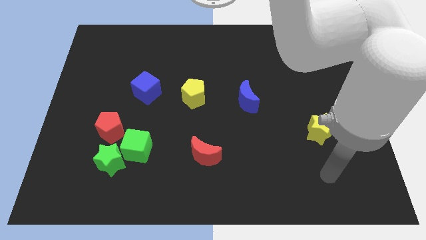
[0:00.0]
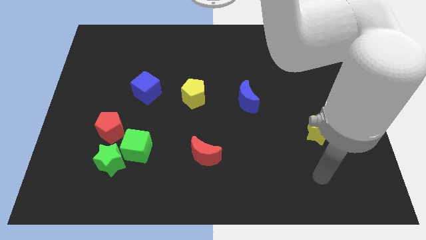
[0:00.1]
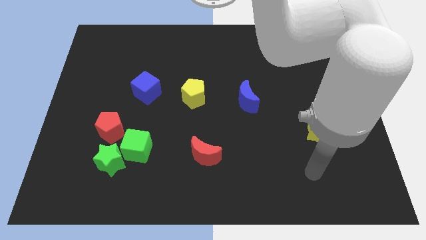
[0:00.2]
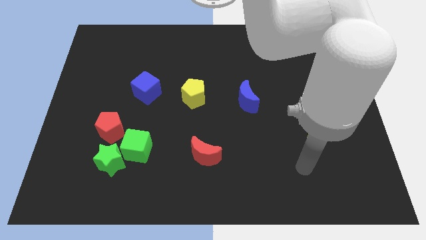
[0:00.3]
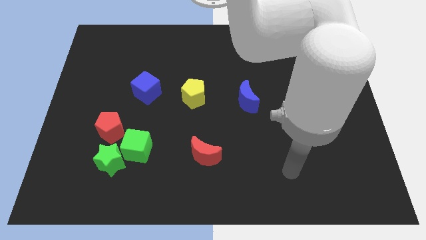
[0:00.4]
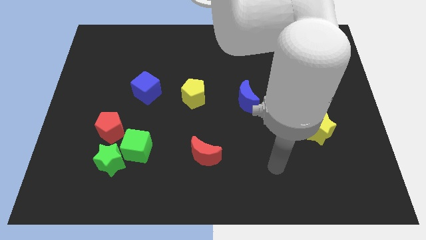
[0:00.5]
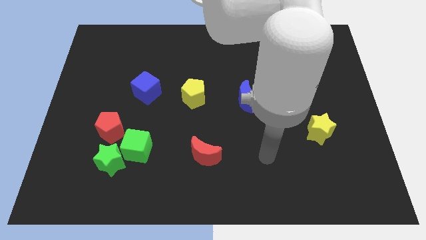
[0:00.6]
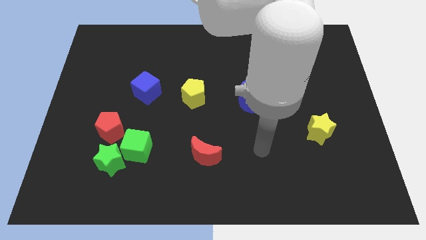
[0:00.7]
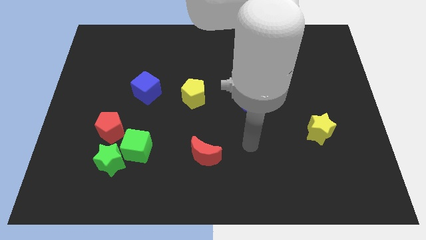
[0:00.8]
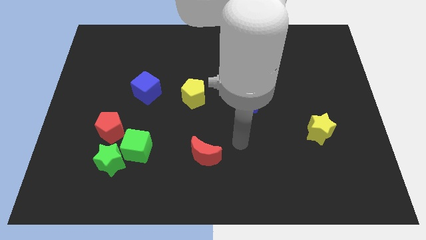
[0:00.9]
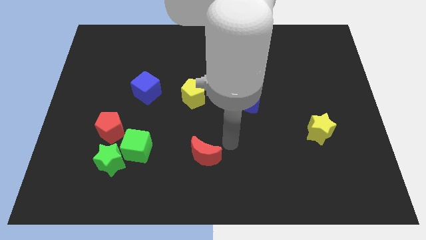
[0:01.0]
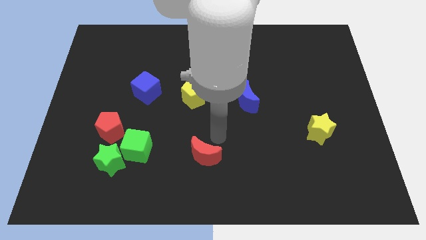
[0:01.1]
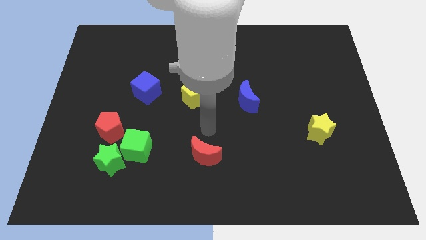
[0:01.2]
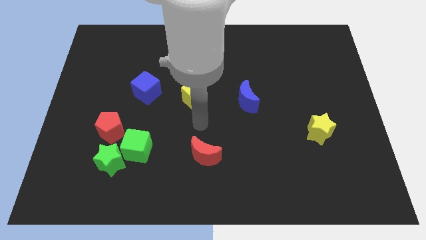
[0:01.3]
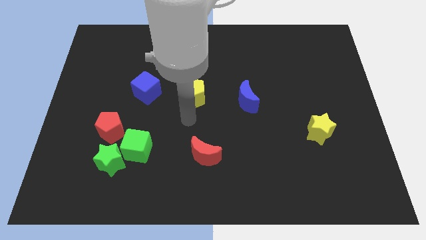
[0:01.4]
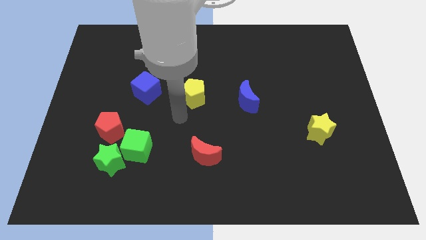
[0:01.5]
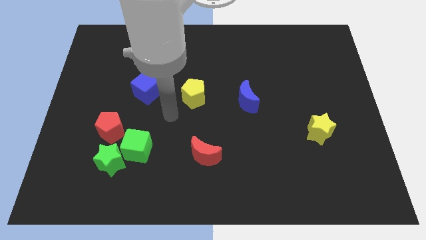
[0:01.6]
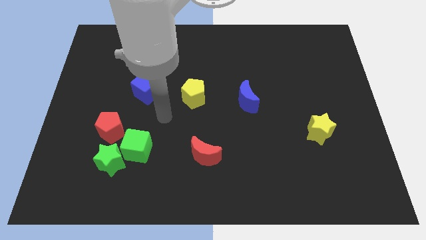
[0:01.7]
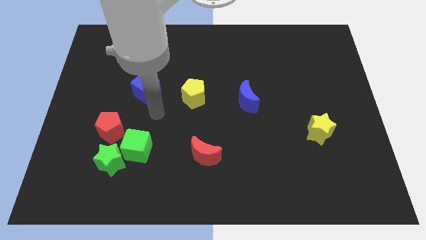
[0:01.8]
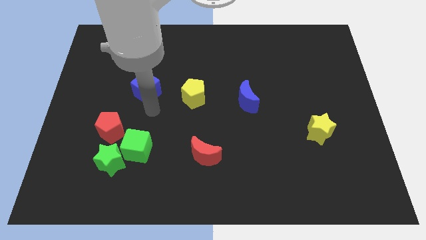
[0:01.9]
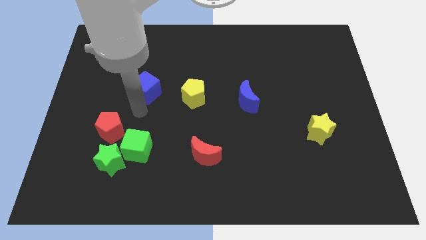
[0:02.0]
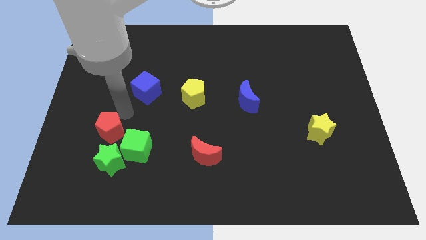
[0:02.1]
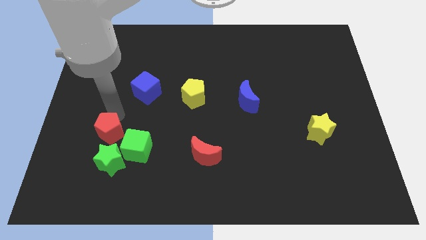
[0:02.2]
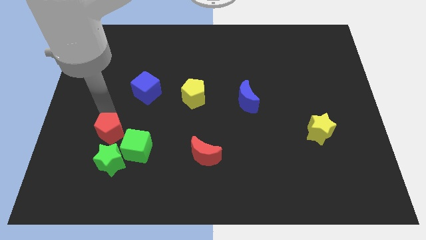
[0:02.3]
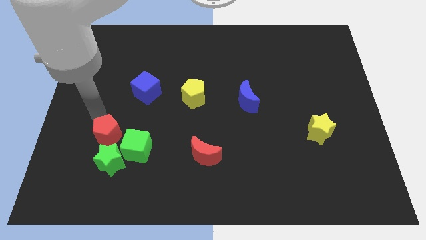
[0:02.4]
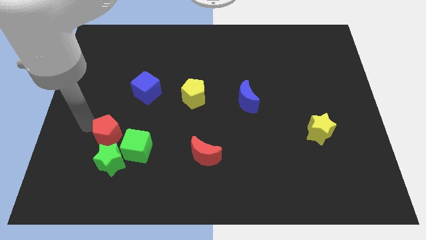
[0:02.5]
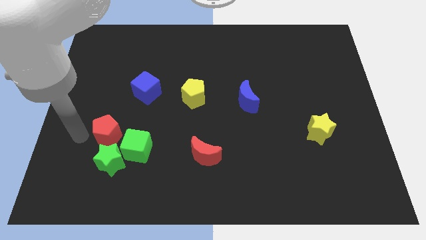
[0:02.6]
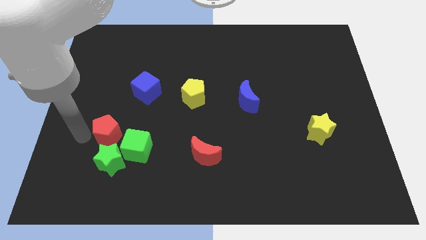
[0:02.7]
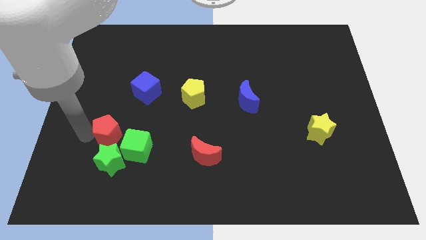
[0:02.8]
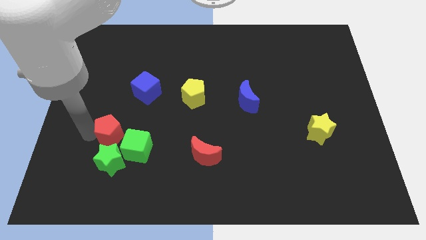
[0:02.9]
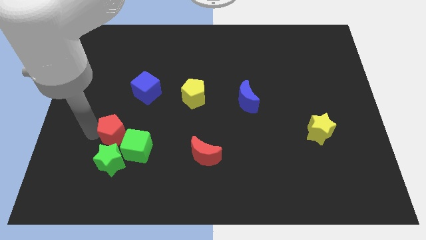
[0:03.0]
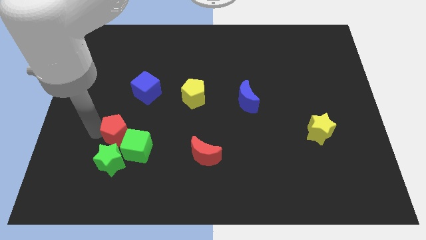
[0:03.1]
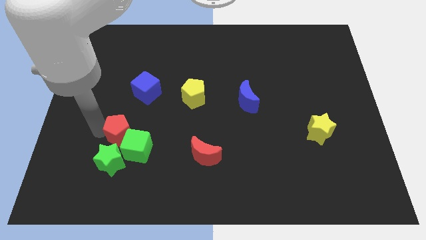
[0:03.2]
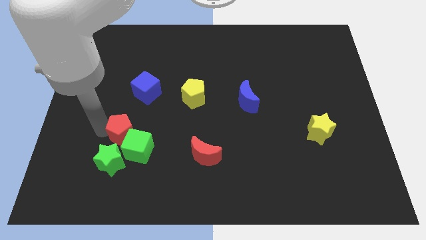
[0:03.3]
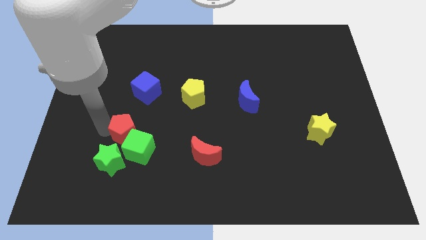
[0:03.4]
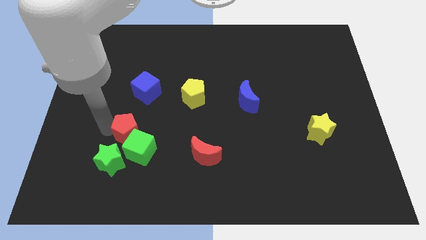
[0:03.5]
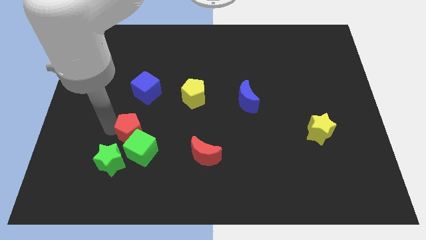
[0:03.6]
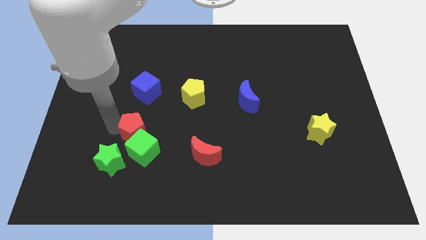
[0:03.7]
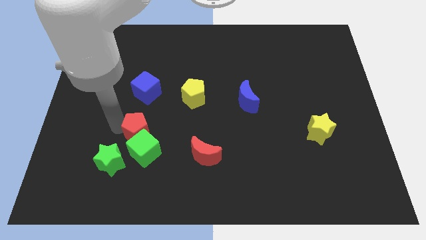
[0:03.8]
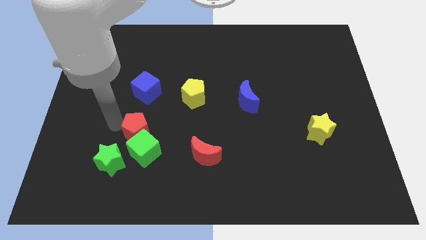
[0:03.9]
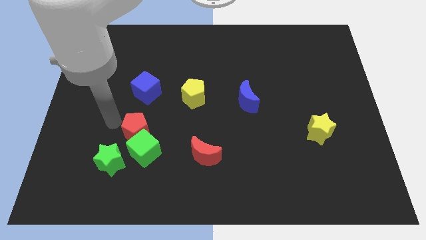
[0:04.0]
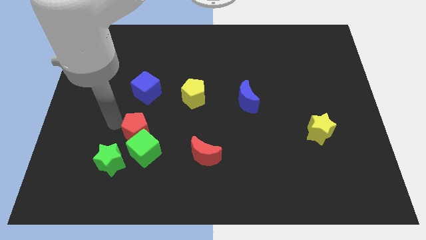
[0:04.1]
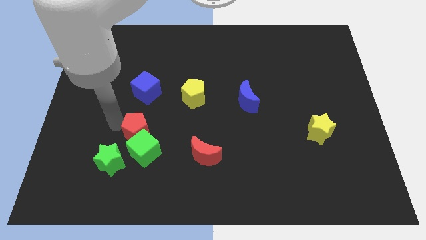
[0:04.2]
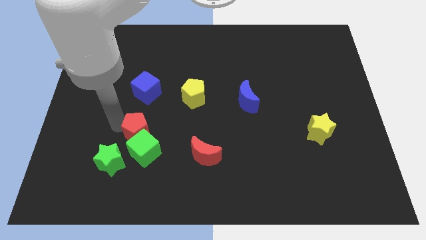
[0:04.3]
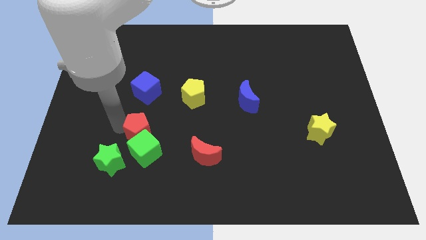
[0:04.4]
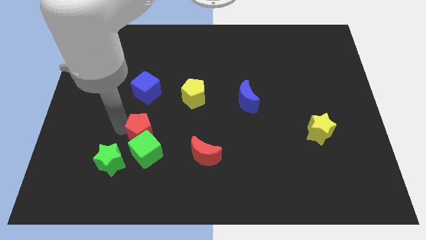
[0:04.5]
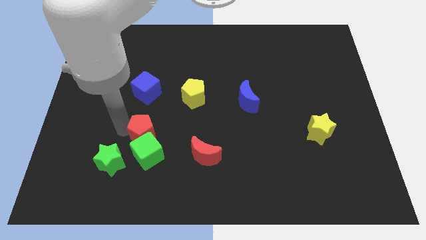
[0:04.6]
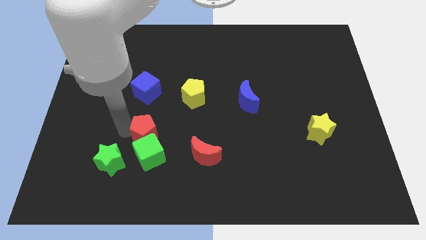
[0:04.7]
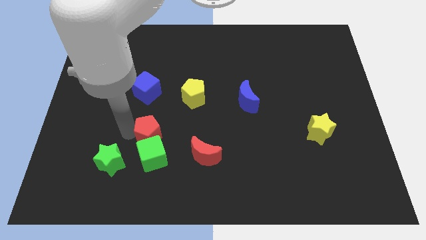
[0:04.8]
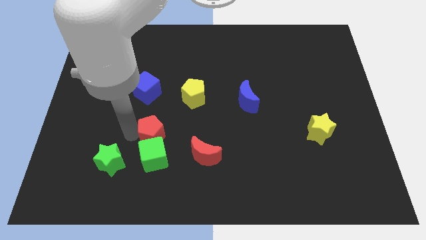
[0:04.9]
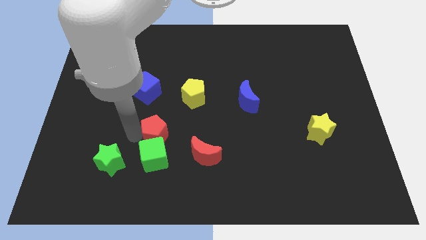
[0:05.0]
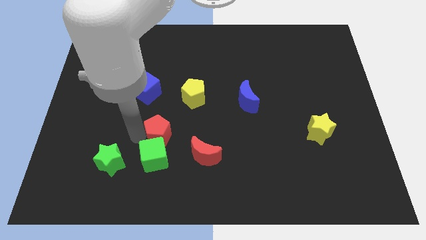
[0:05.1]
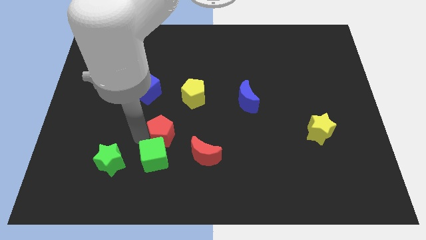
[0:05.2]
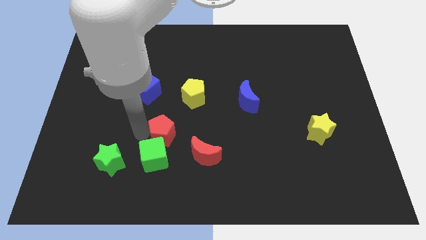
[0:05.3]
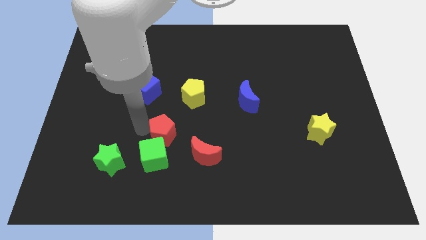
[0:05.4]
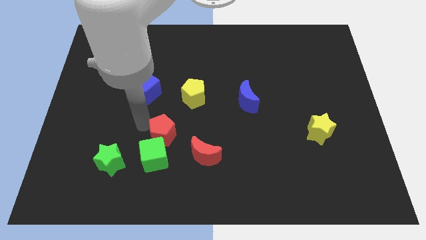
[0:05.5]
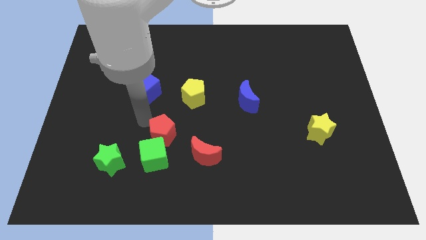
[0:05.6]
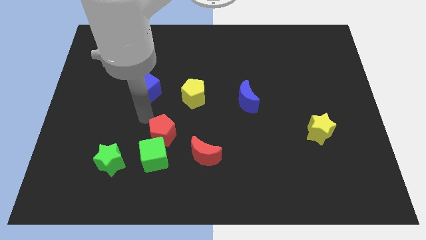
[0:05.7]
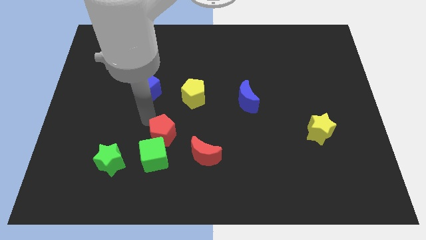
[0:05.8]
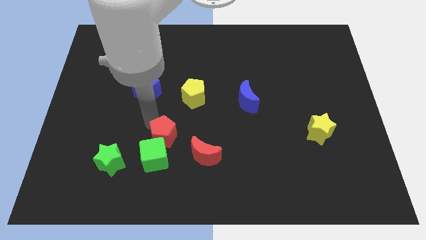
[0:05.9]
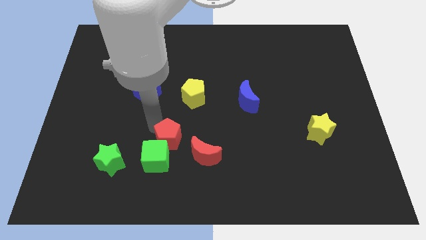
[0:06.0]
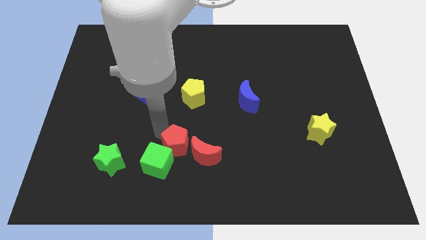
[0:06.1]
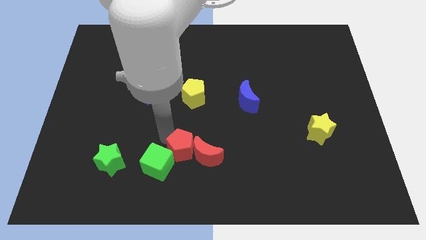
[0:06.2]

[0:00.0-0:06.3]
move the red pentagon towards the red moon

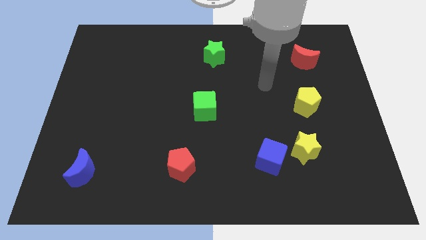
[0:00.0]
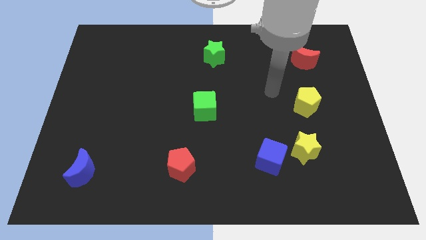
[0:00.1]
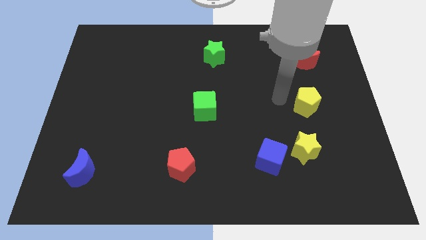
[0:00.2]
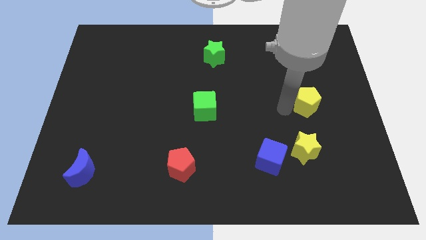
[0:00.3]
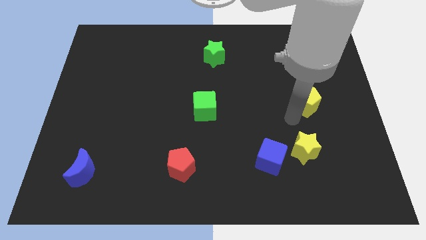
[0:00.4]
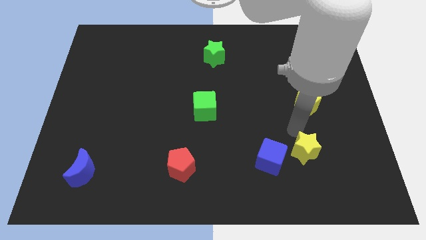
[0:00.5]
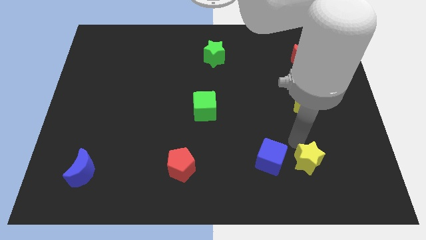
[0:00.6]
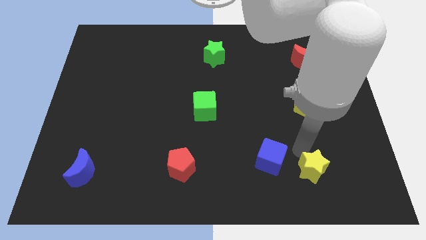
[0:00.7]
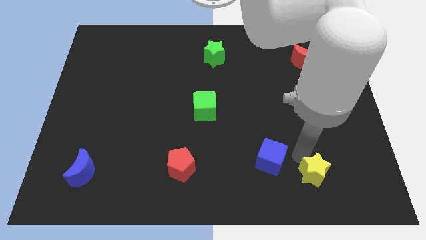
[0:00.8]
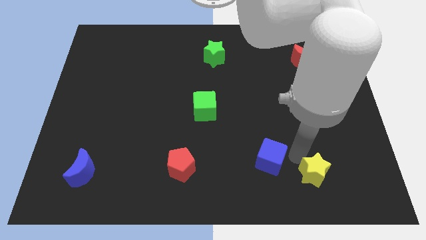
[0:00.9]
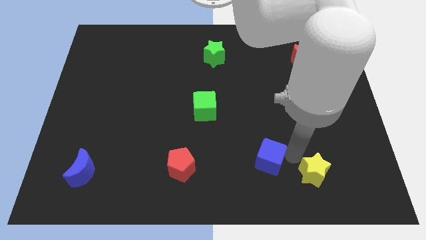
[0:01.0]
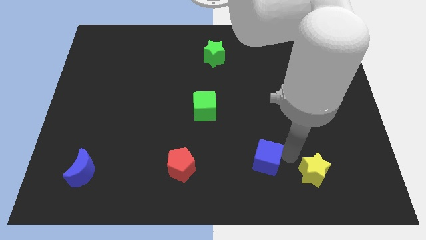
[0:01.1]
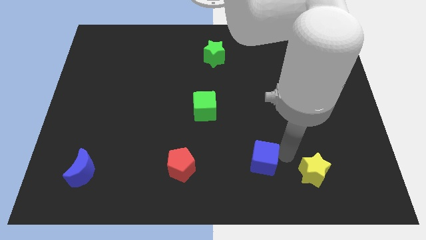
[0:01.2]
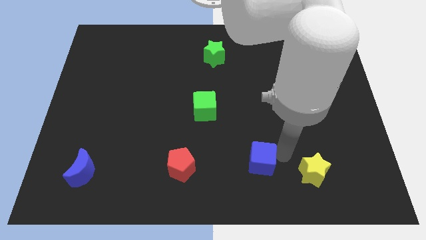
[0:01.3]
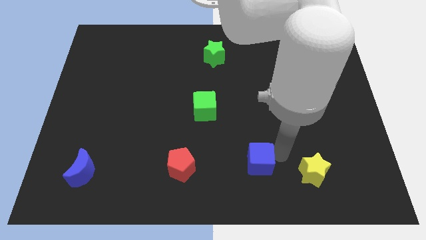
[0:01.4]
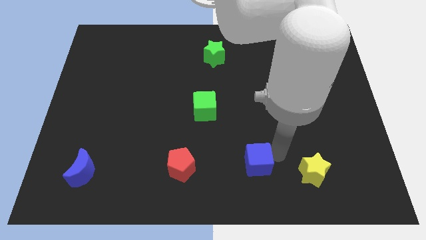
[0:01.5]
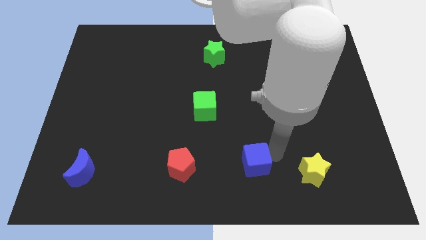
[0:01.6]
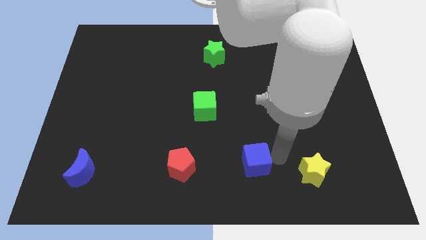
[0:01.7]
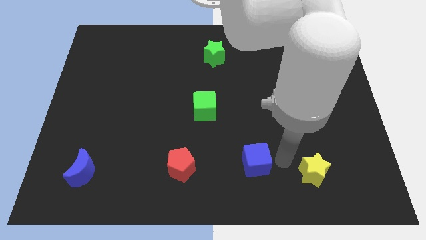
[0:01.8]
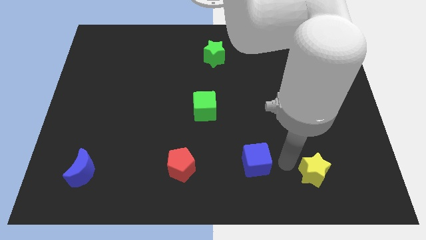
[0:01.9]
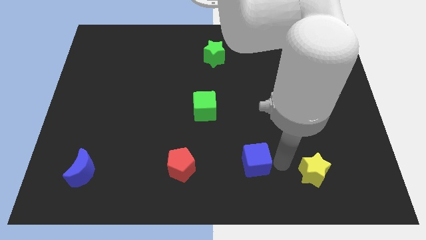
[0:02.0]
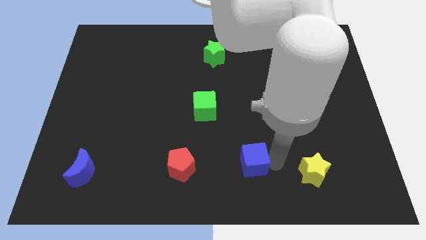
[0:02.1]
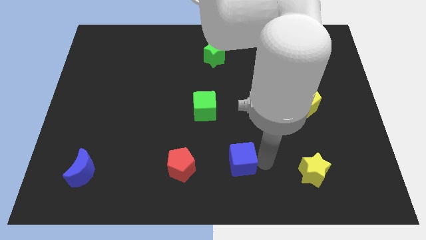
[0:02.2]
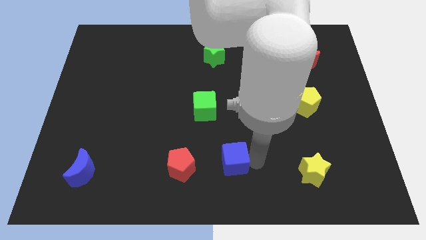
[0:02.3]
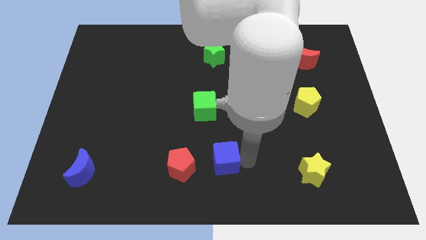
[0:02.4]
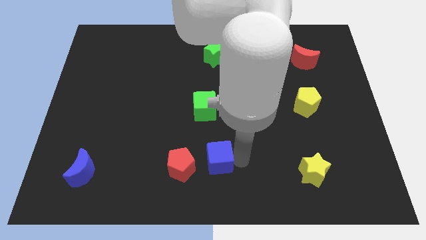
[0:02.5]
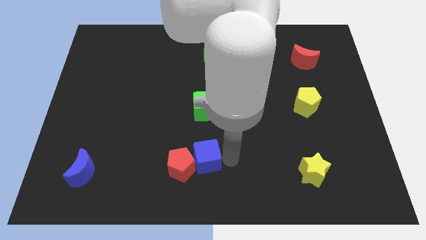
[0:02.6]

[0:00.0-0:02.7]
push the blue cube towards the red pentagon
